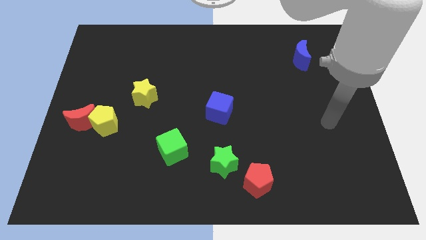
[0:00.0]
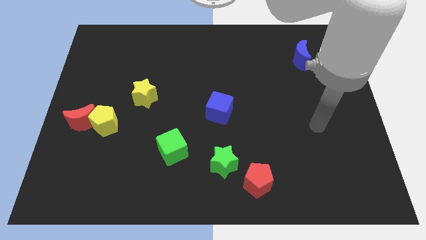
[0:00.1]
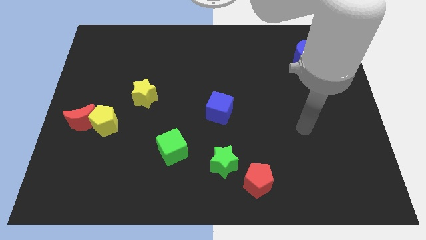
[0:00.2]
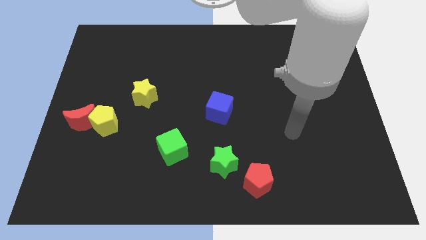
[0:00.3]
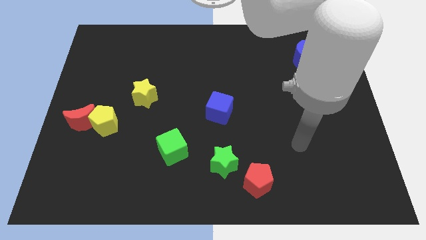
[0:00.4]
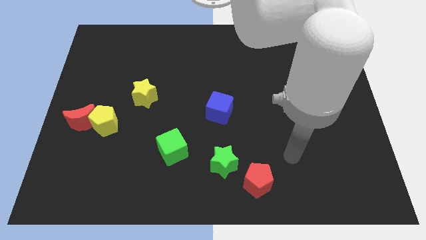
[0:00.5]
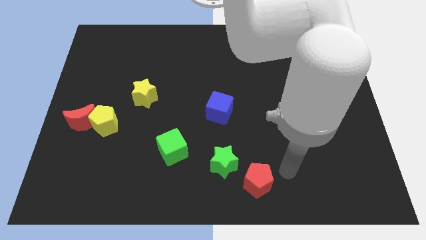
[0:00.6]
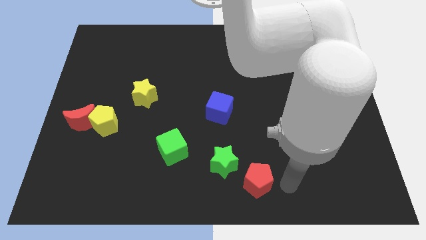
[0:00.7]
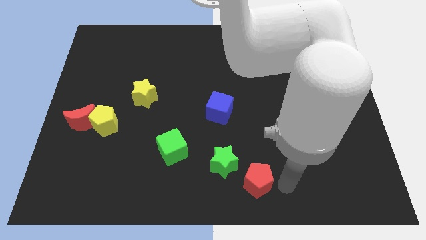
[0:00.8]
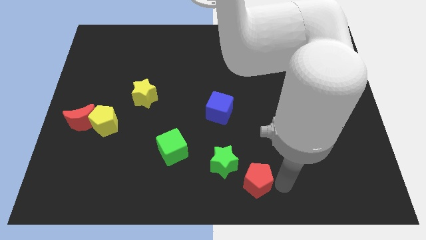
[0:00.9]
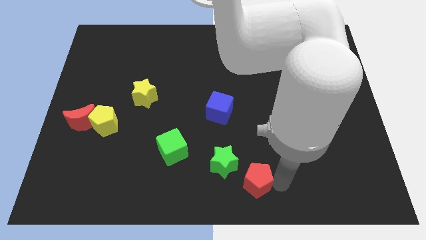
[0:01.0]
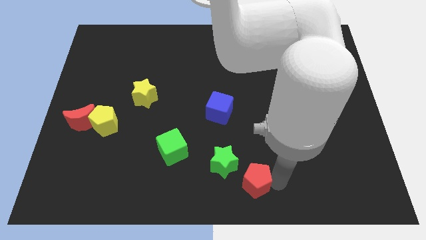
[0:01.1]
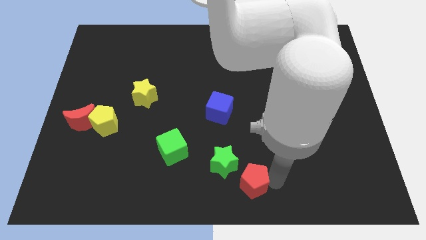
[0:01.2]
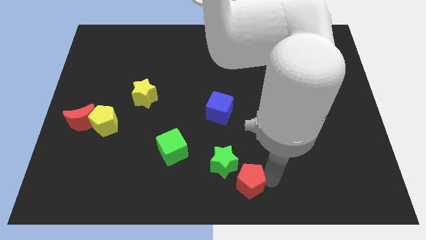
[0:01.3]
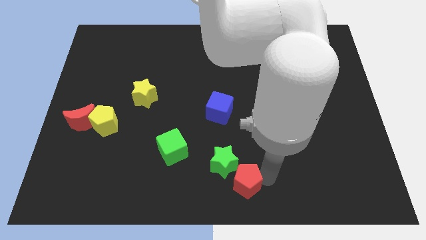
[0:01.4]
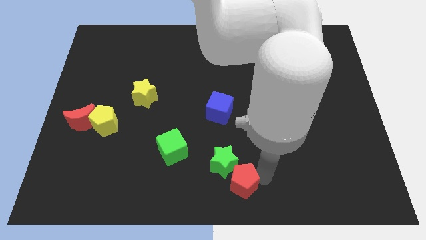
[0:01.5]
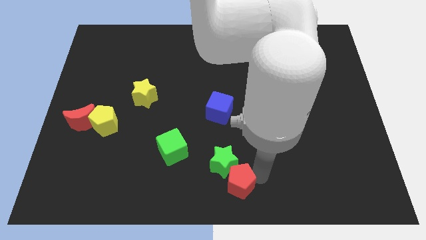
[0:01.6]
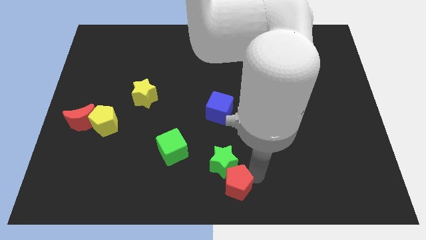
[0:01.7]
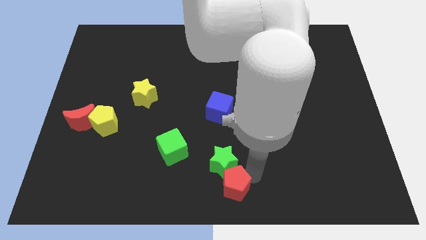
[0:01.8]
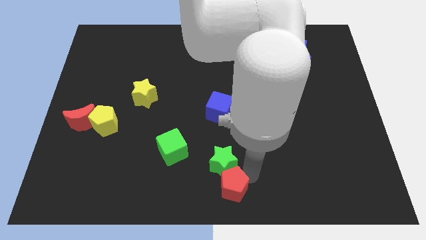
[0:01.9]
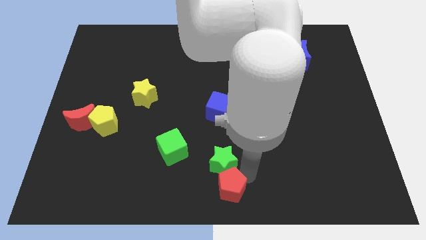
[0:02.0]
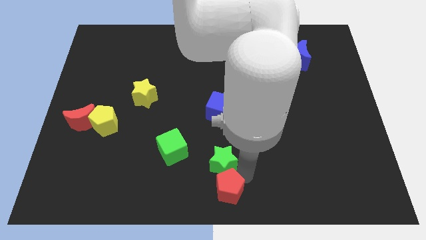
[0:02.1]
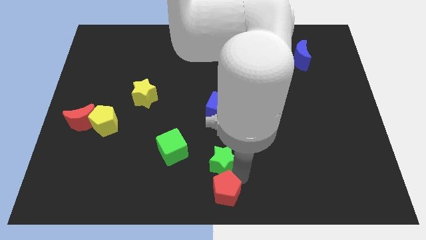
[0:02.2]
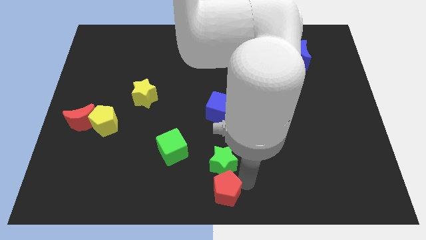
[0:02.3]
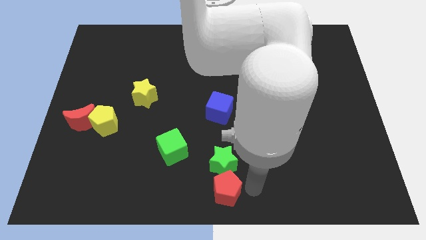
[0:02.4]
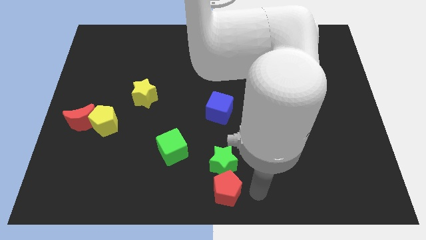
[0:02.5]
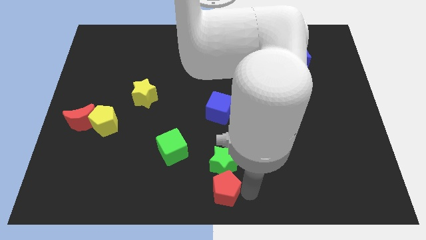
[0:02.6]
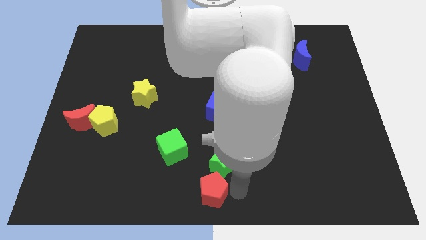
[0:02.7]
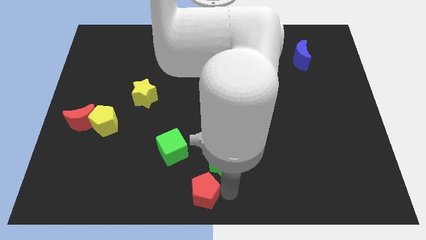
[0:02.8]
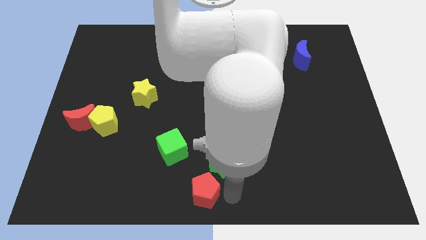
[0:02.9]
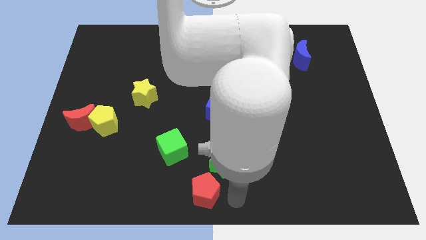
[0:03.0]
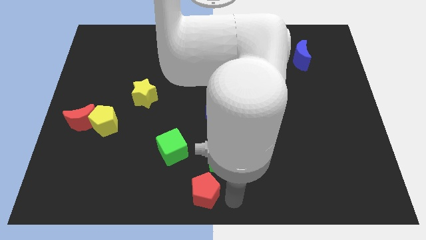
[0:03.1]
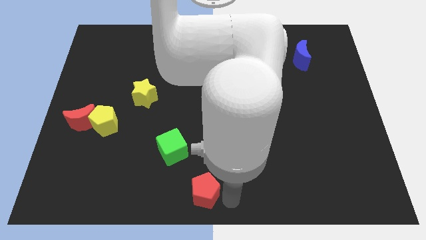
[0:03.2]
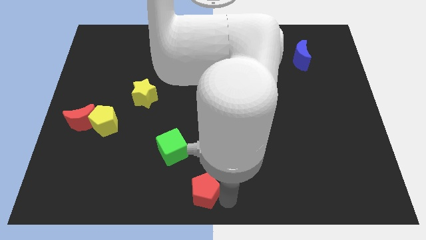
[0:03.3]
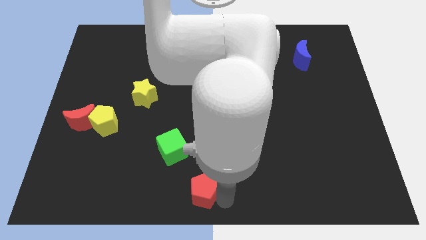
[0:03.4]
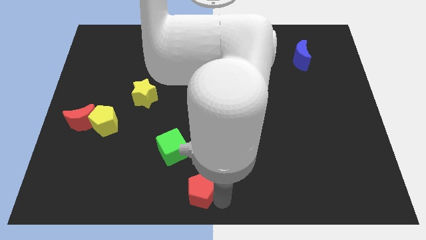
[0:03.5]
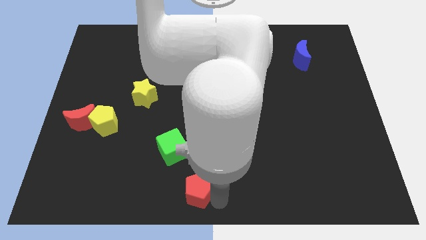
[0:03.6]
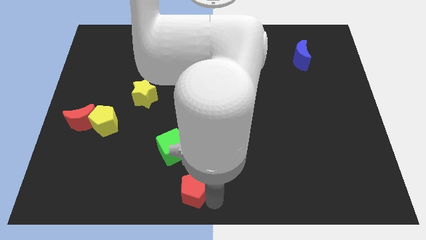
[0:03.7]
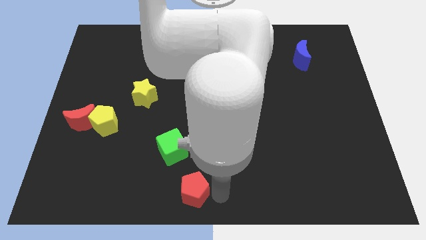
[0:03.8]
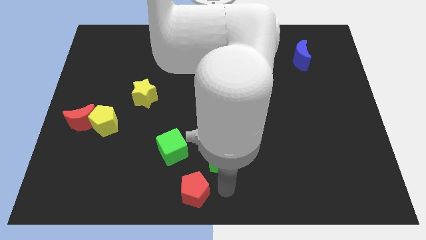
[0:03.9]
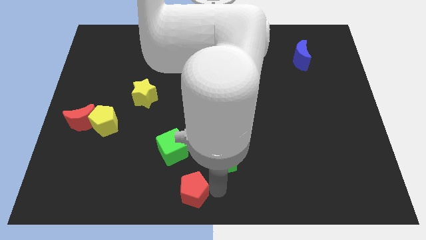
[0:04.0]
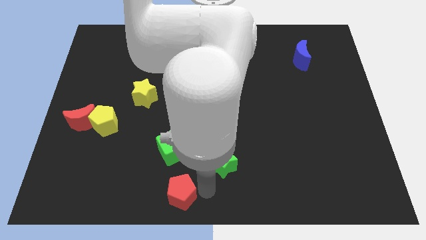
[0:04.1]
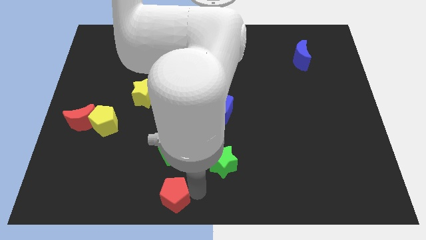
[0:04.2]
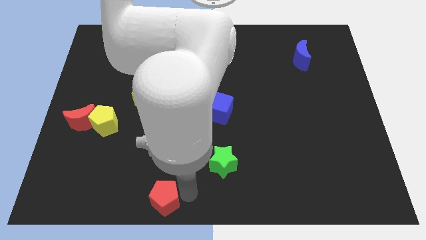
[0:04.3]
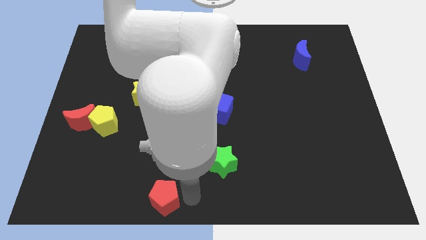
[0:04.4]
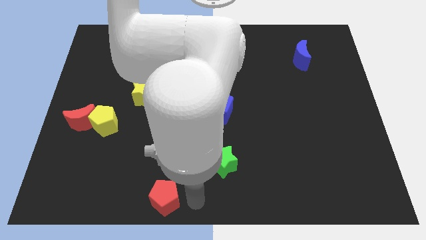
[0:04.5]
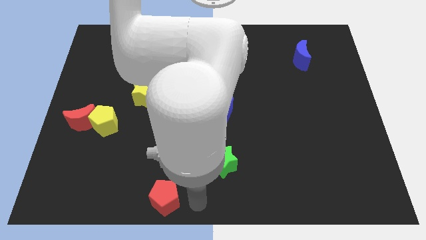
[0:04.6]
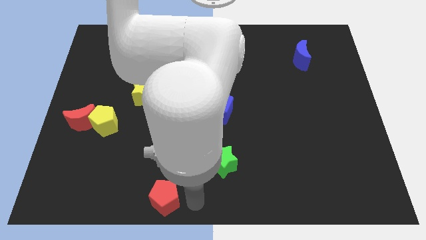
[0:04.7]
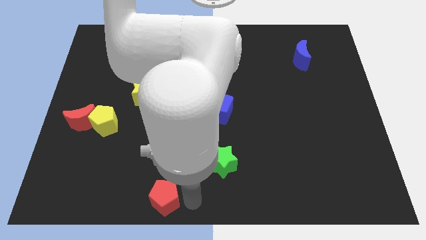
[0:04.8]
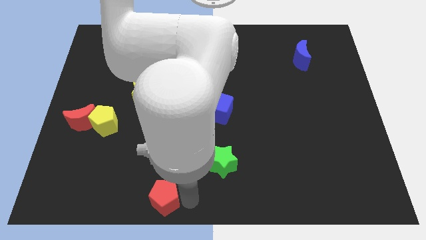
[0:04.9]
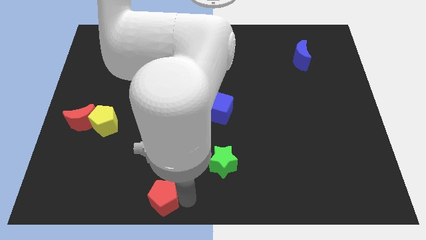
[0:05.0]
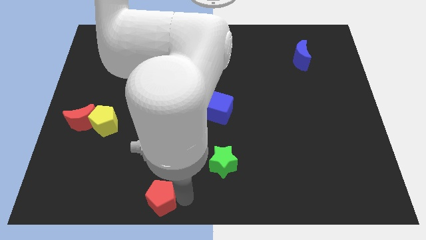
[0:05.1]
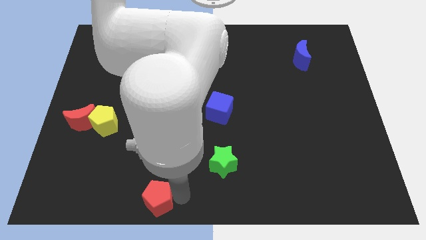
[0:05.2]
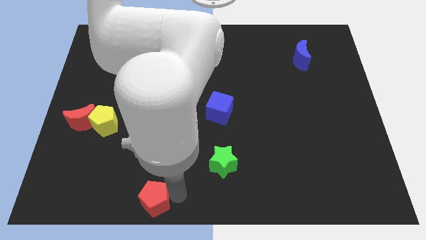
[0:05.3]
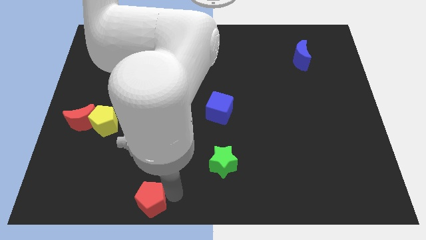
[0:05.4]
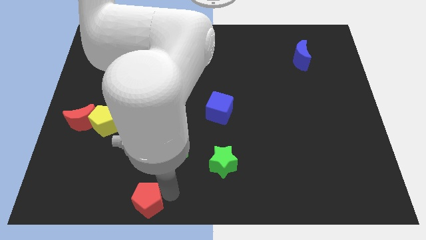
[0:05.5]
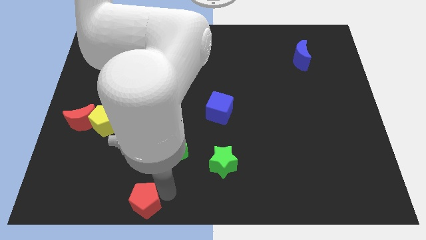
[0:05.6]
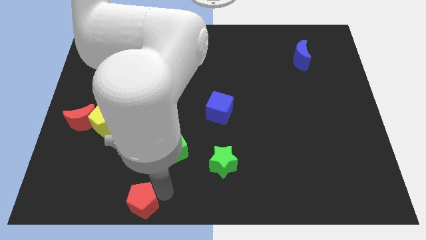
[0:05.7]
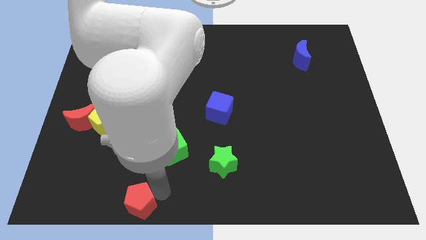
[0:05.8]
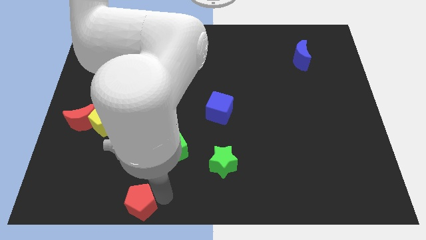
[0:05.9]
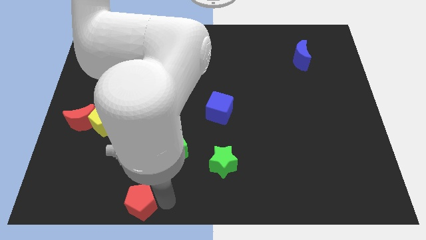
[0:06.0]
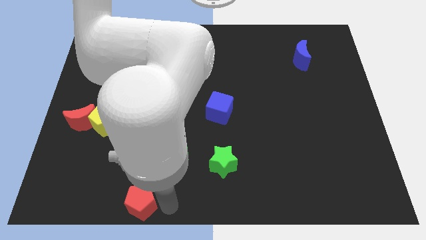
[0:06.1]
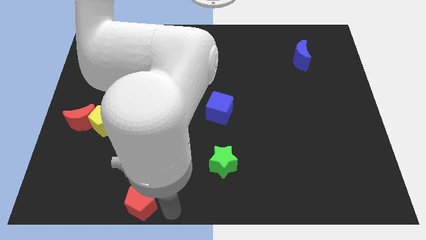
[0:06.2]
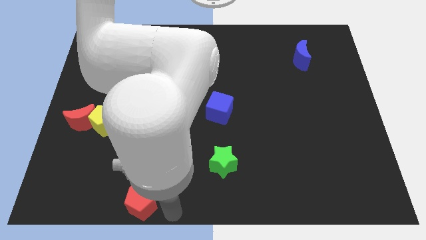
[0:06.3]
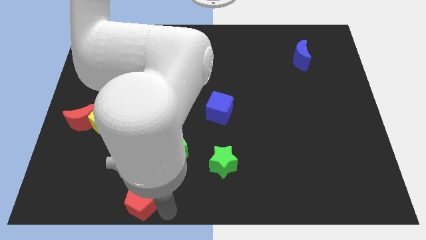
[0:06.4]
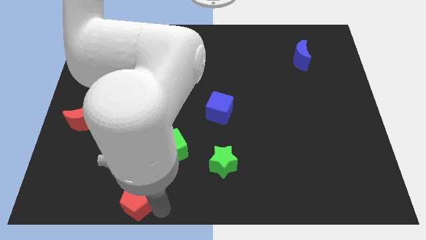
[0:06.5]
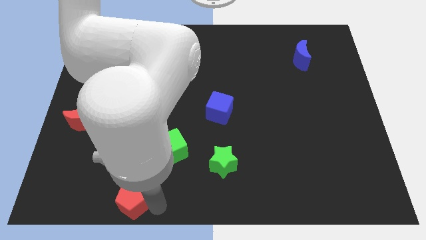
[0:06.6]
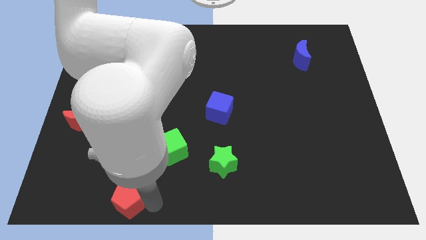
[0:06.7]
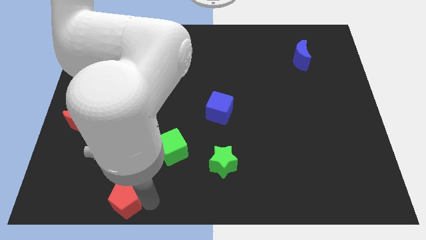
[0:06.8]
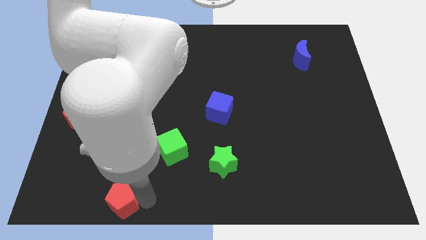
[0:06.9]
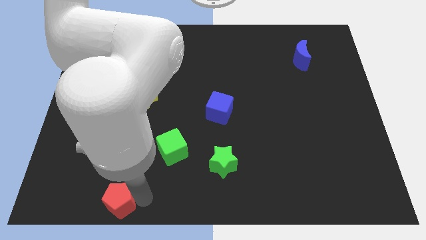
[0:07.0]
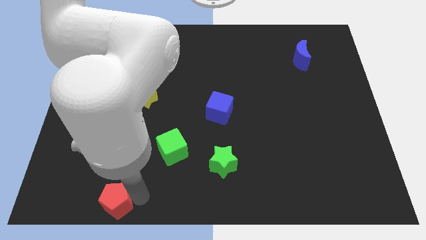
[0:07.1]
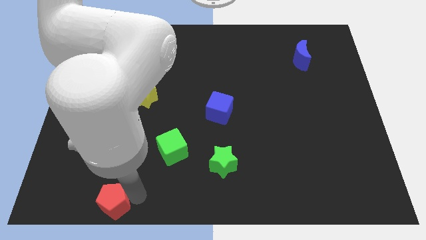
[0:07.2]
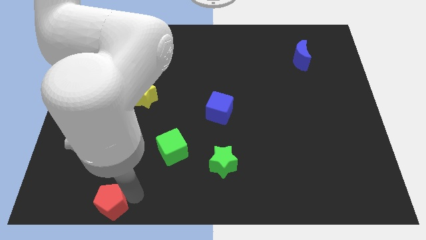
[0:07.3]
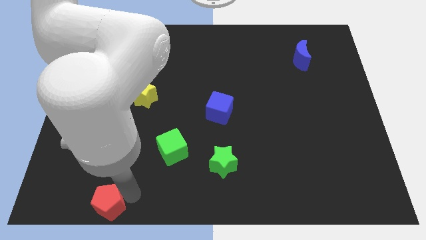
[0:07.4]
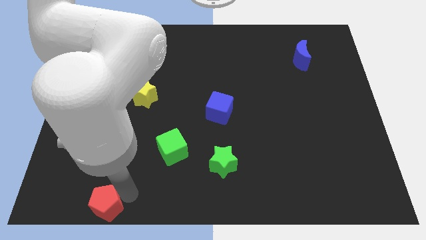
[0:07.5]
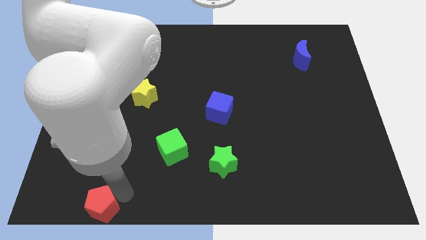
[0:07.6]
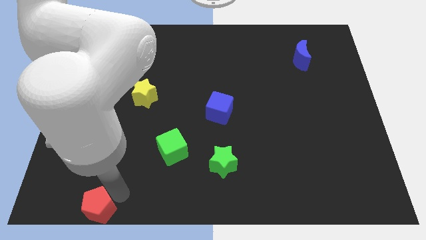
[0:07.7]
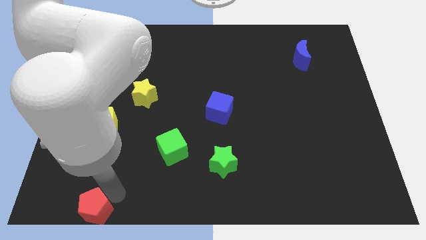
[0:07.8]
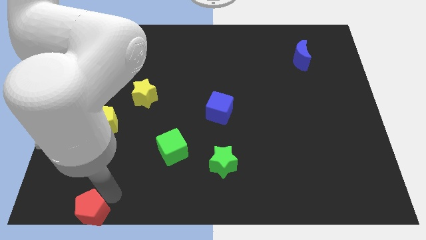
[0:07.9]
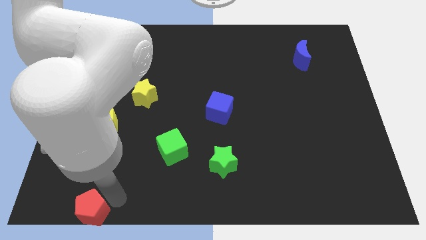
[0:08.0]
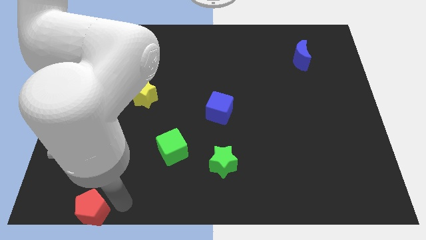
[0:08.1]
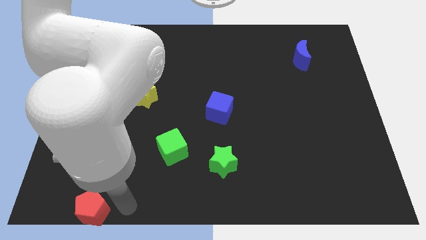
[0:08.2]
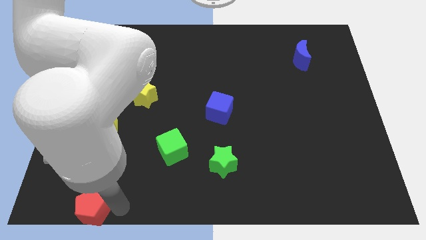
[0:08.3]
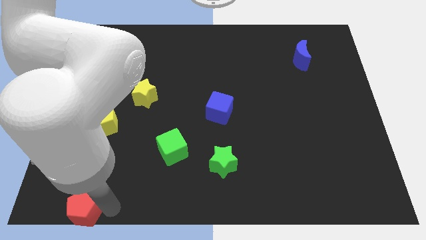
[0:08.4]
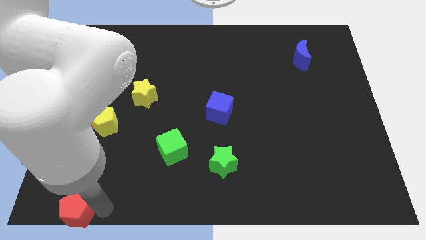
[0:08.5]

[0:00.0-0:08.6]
push the red pentagon to the lower left corner
